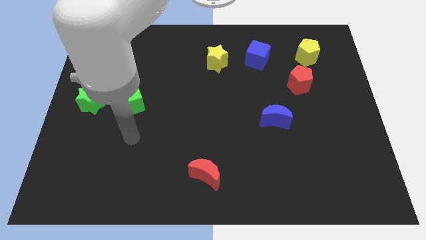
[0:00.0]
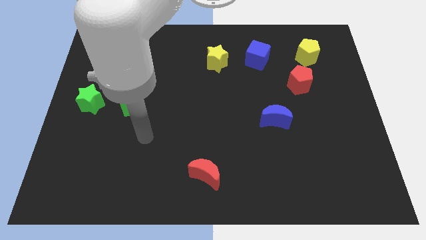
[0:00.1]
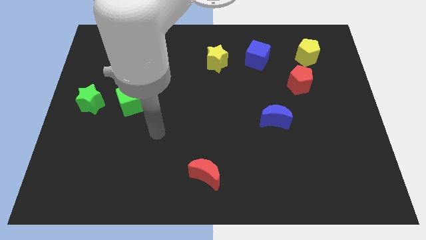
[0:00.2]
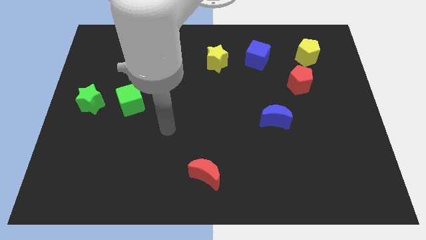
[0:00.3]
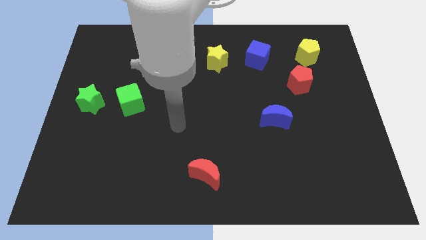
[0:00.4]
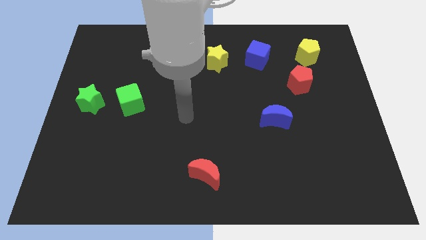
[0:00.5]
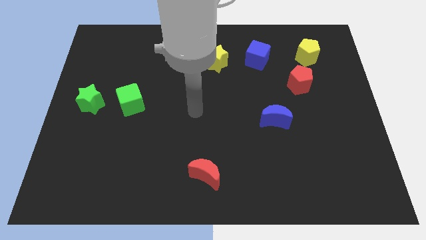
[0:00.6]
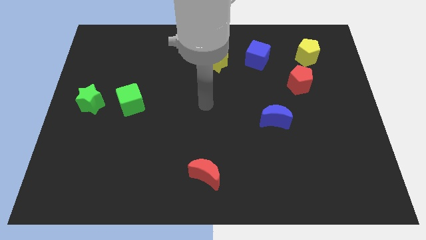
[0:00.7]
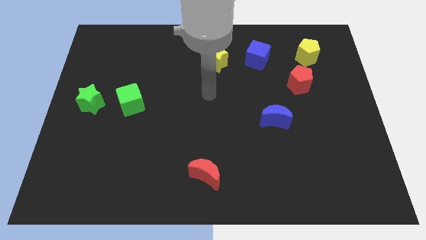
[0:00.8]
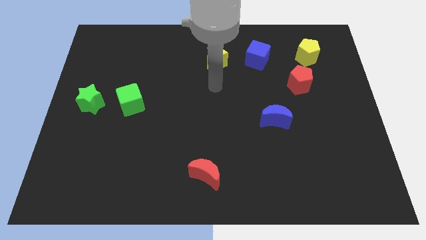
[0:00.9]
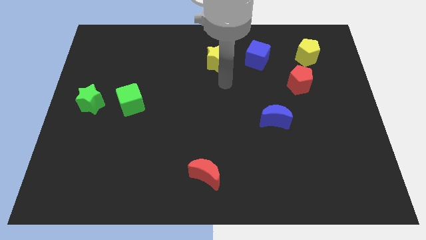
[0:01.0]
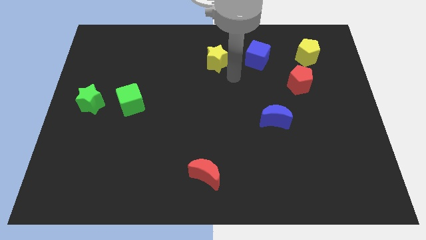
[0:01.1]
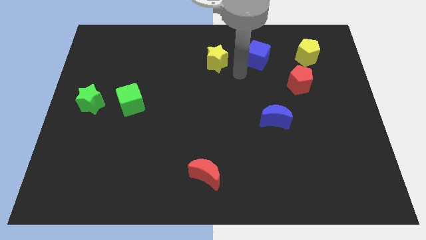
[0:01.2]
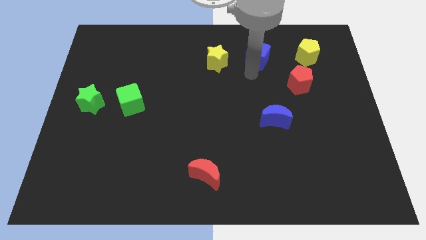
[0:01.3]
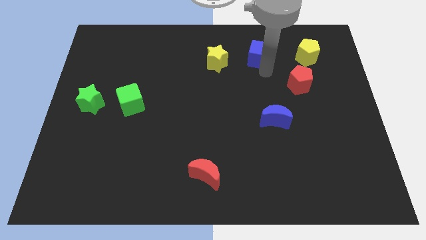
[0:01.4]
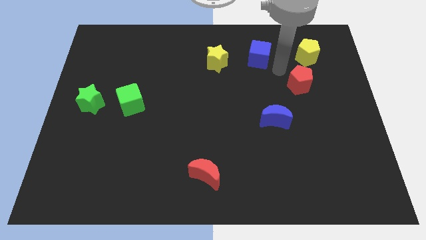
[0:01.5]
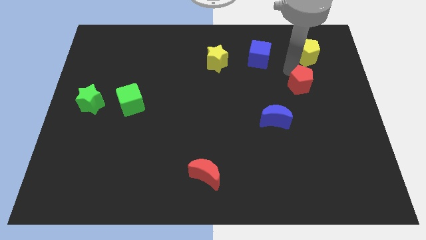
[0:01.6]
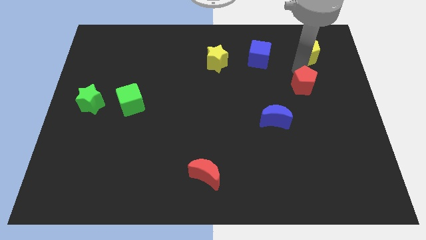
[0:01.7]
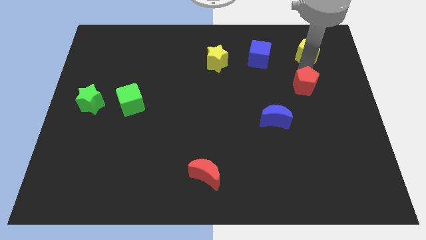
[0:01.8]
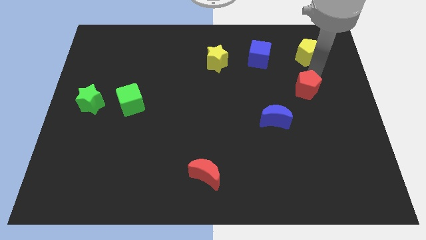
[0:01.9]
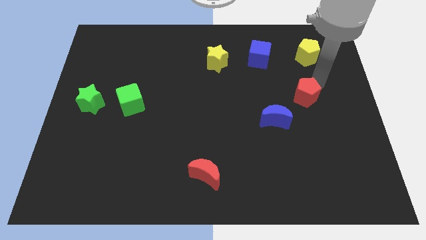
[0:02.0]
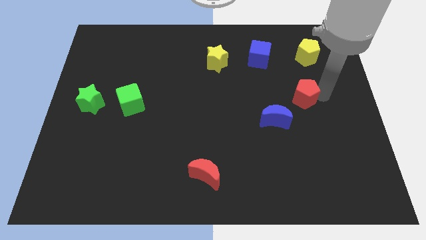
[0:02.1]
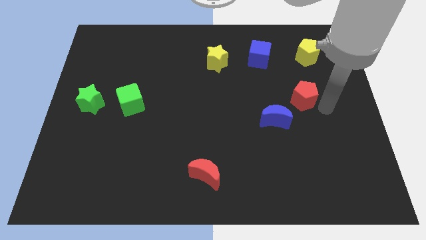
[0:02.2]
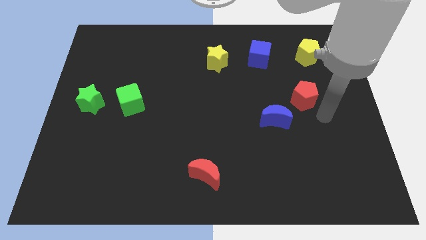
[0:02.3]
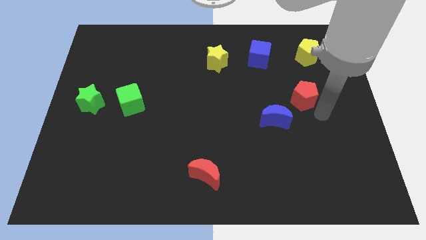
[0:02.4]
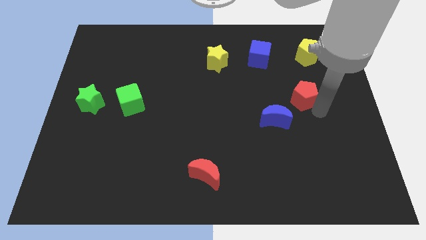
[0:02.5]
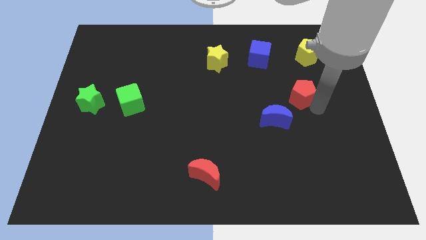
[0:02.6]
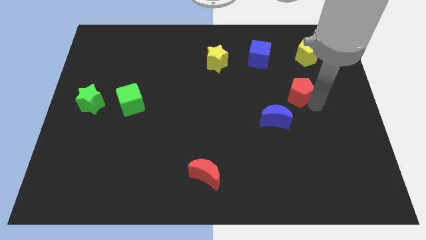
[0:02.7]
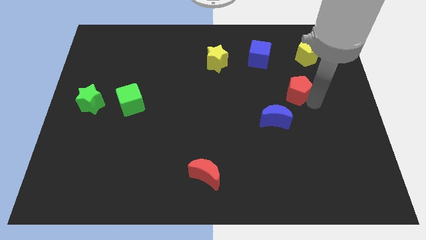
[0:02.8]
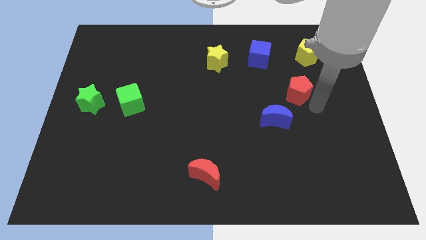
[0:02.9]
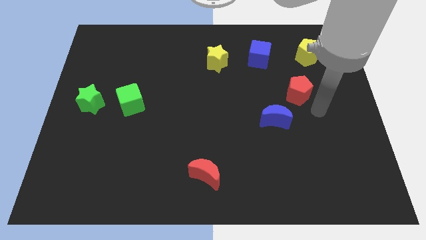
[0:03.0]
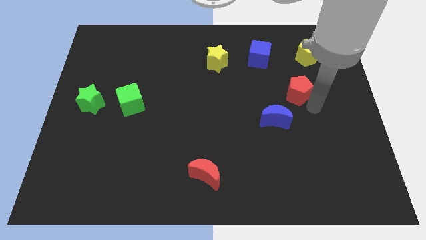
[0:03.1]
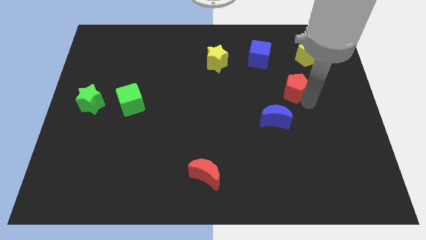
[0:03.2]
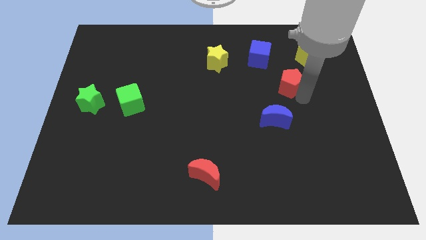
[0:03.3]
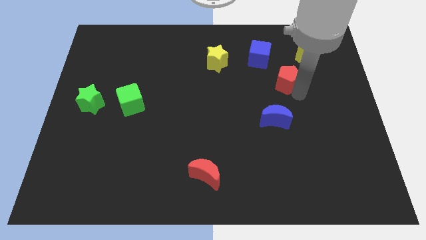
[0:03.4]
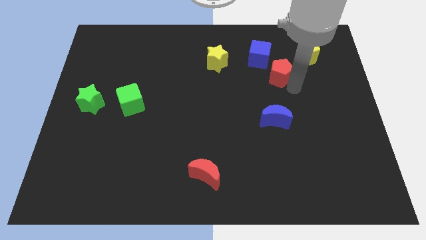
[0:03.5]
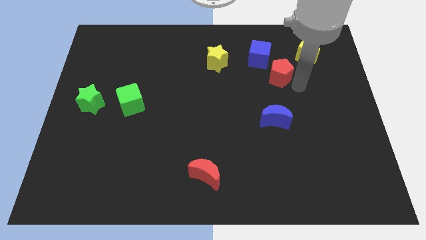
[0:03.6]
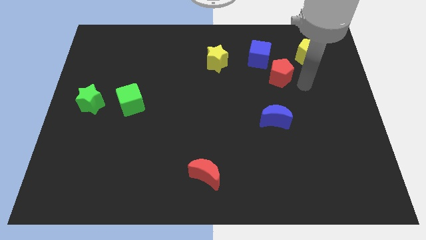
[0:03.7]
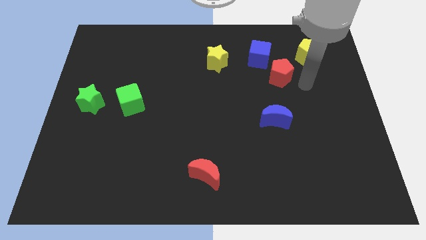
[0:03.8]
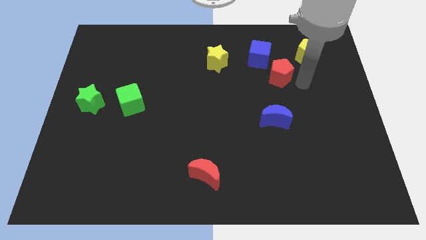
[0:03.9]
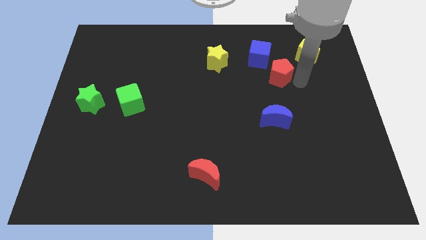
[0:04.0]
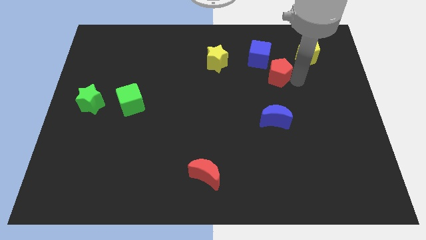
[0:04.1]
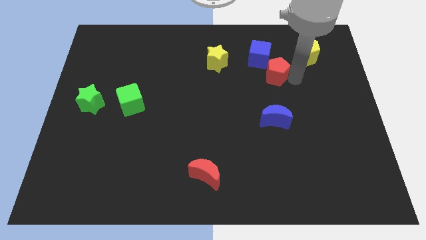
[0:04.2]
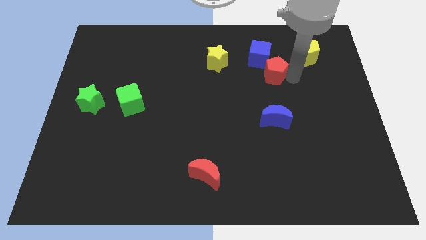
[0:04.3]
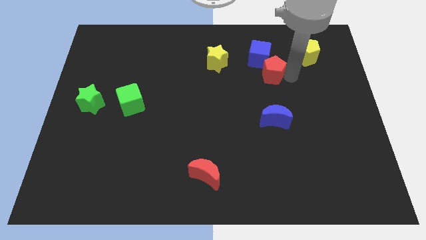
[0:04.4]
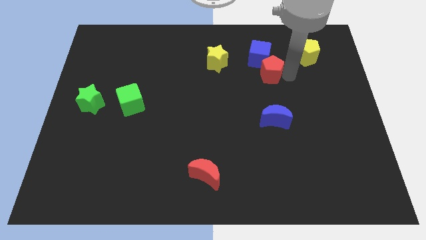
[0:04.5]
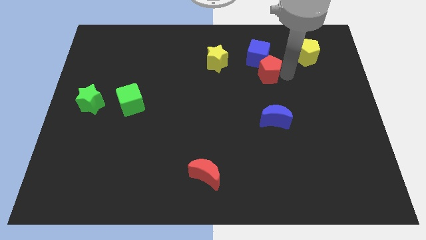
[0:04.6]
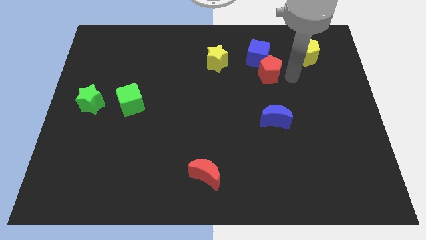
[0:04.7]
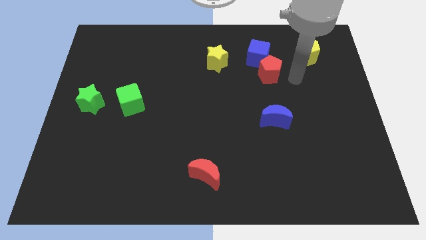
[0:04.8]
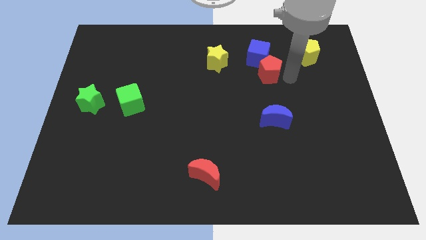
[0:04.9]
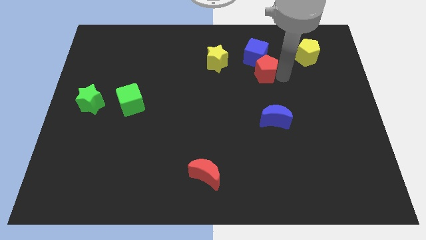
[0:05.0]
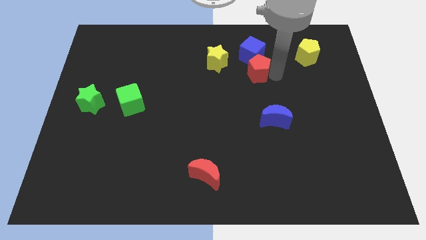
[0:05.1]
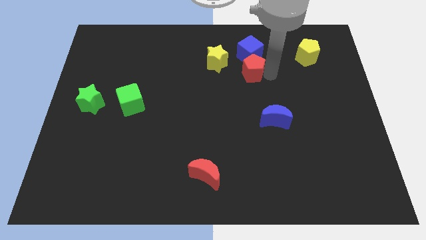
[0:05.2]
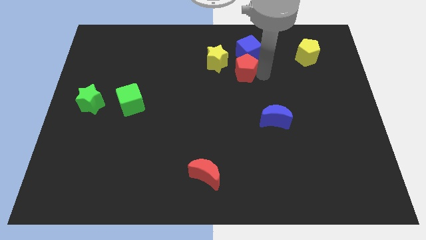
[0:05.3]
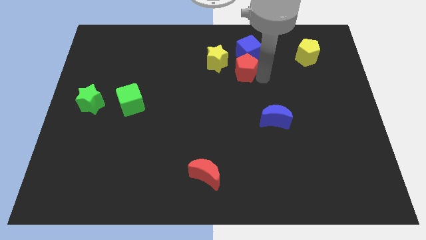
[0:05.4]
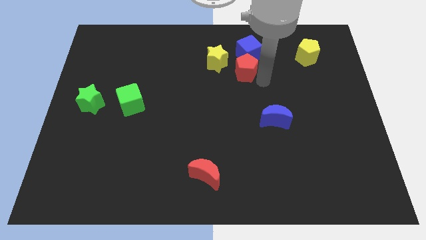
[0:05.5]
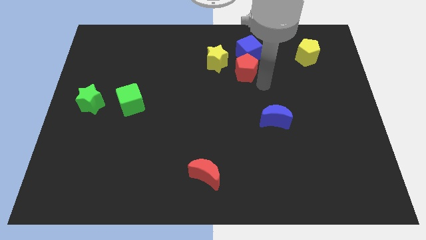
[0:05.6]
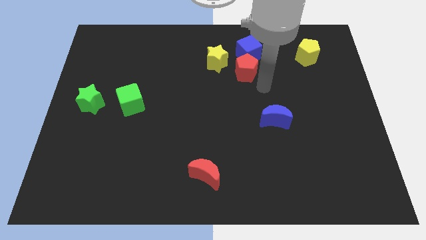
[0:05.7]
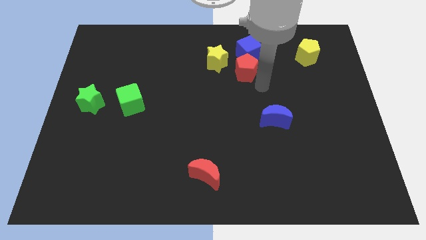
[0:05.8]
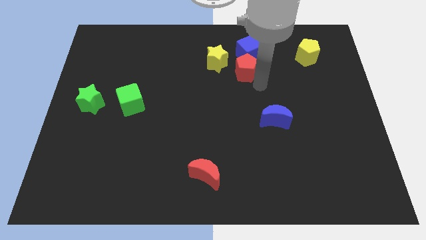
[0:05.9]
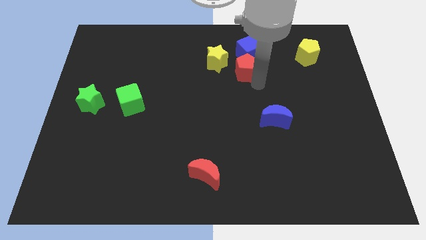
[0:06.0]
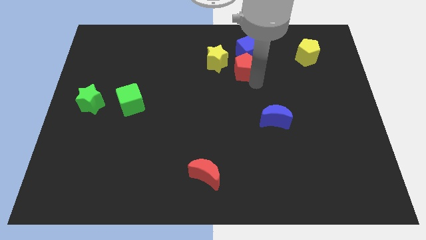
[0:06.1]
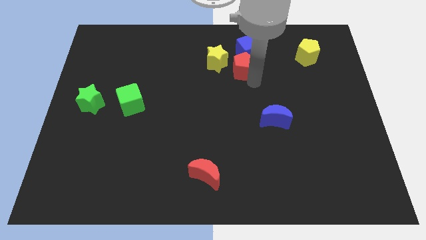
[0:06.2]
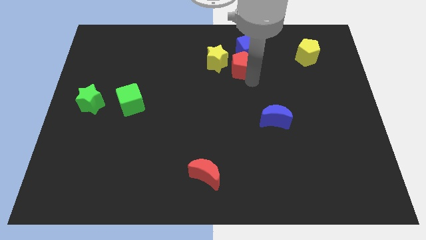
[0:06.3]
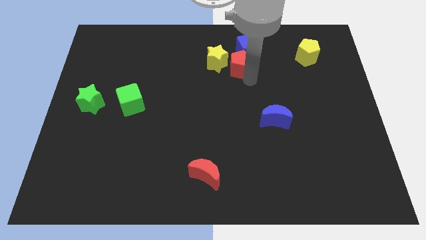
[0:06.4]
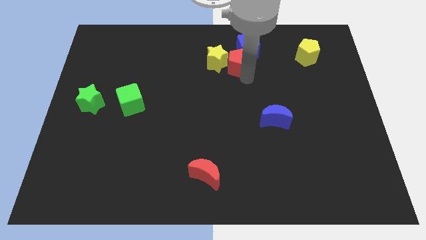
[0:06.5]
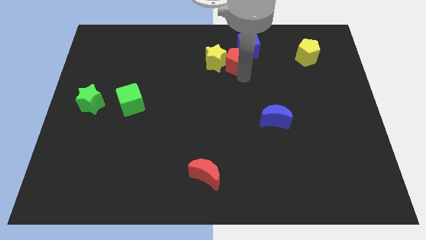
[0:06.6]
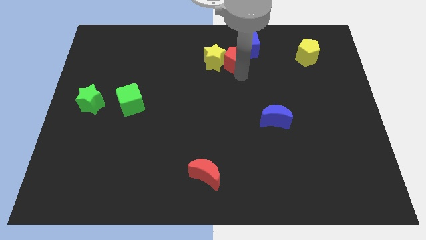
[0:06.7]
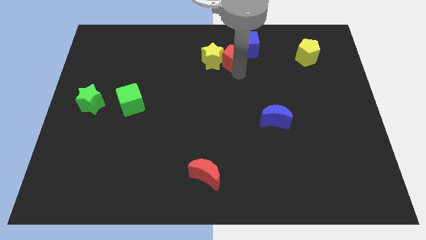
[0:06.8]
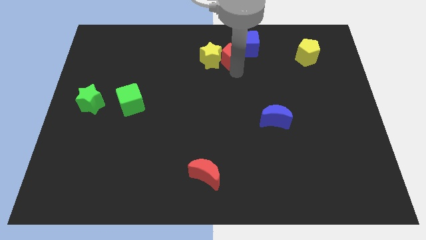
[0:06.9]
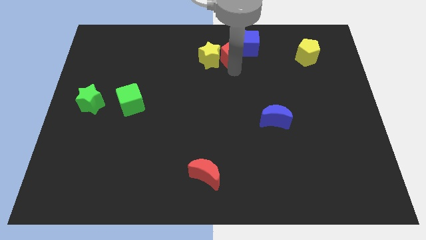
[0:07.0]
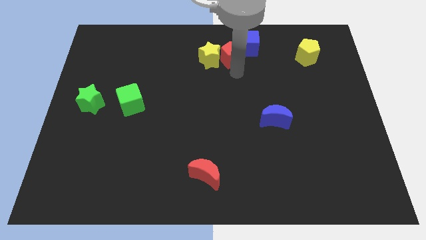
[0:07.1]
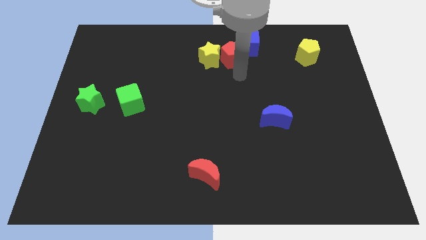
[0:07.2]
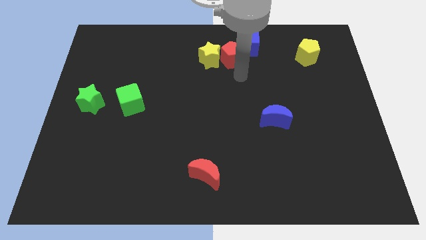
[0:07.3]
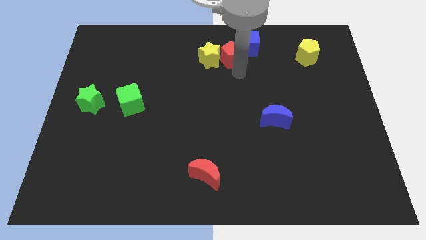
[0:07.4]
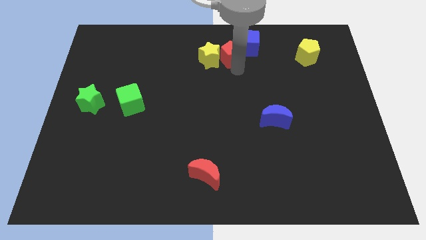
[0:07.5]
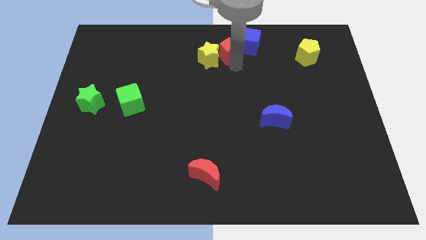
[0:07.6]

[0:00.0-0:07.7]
put the red pentagon to the top
